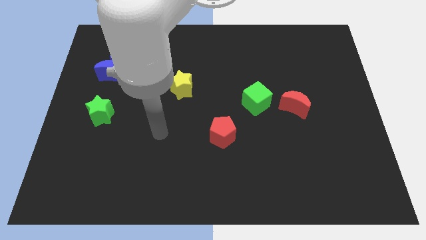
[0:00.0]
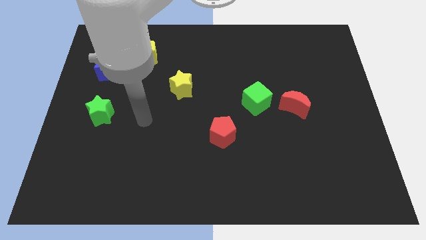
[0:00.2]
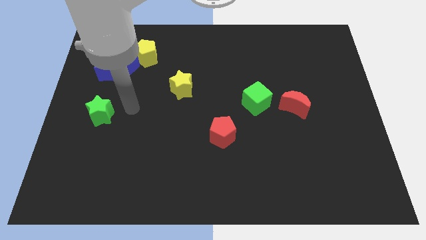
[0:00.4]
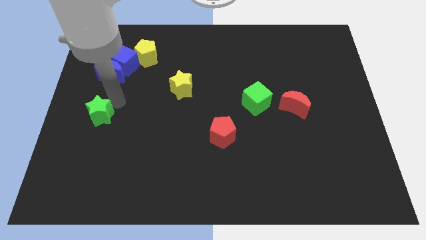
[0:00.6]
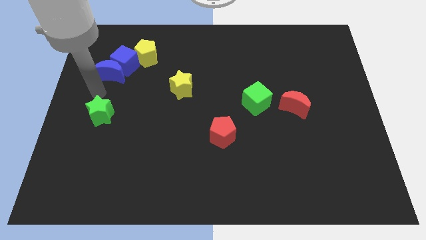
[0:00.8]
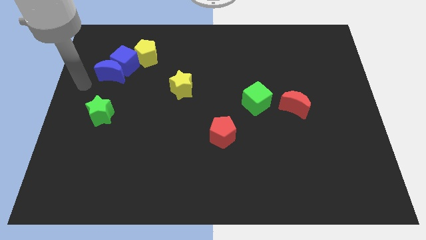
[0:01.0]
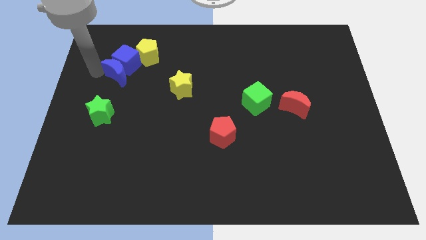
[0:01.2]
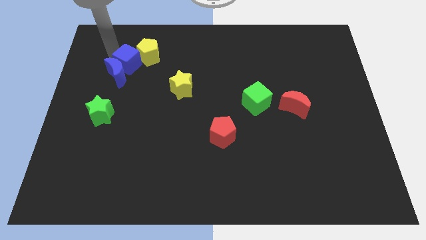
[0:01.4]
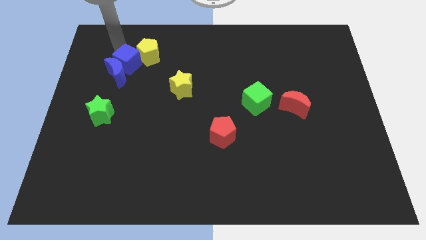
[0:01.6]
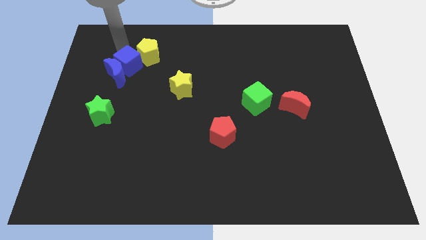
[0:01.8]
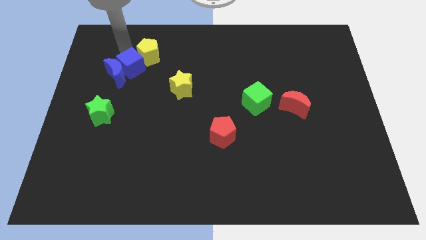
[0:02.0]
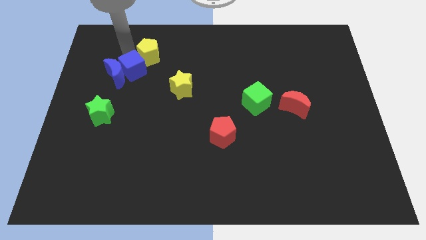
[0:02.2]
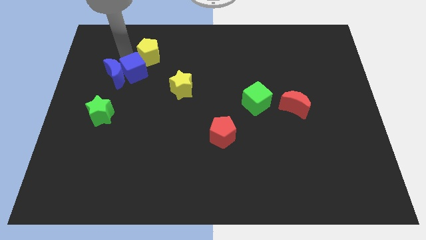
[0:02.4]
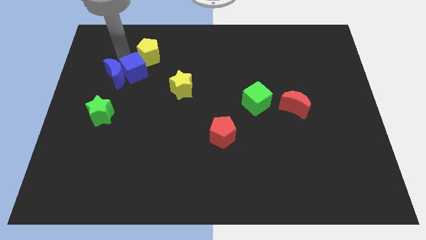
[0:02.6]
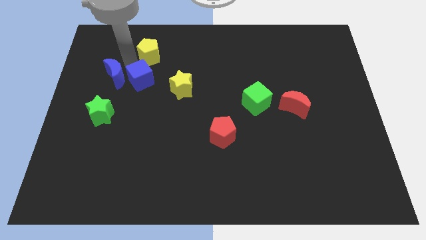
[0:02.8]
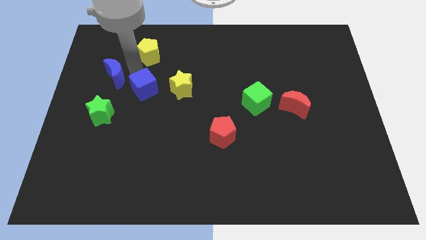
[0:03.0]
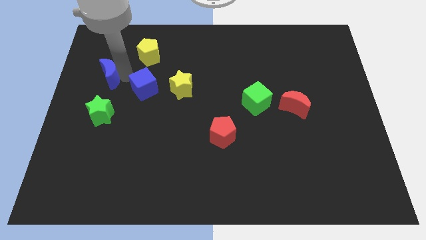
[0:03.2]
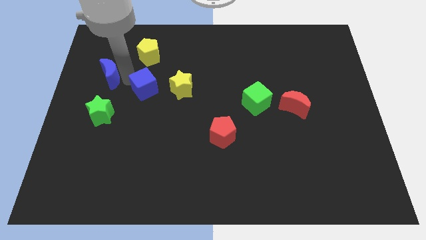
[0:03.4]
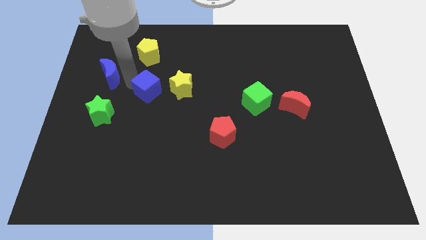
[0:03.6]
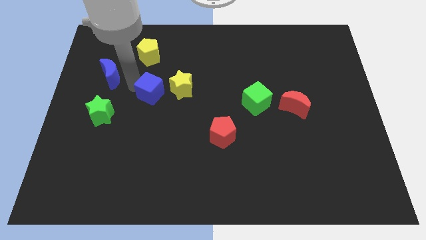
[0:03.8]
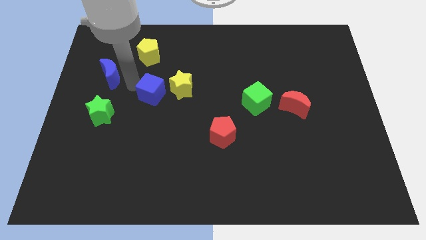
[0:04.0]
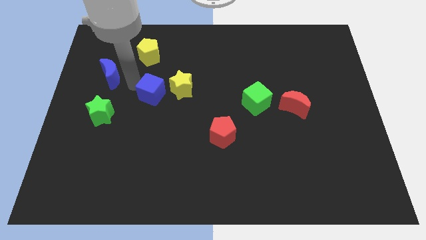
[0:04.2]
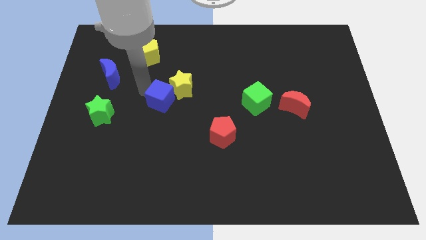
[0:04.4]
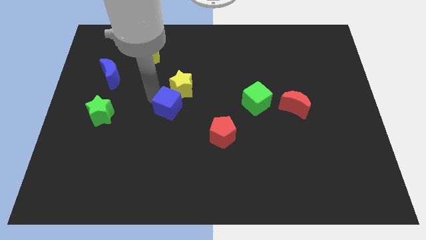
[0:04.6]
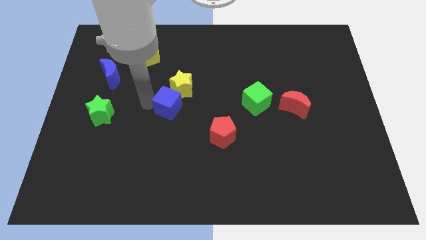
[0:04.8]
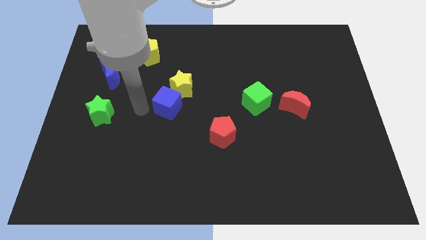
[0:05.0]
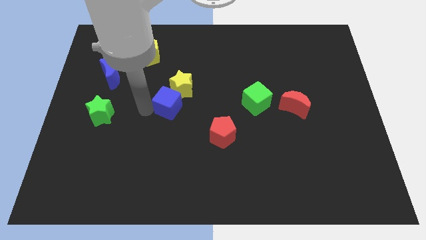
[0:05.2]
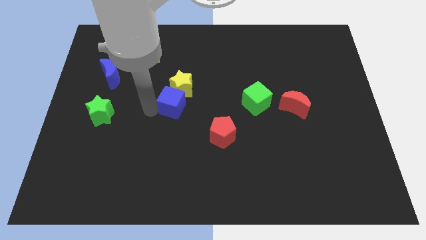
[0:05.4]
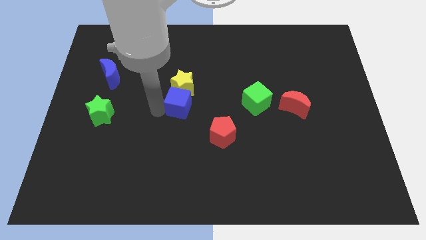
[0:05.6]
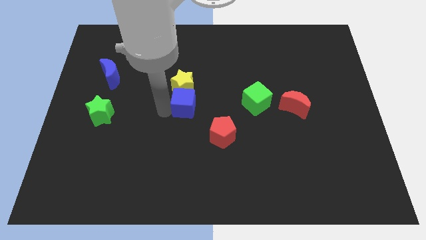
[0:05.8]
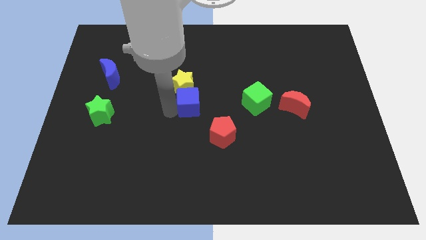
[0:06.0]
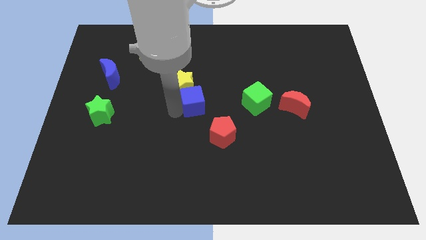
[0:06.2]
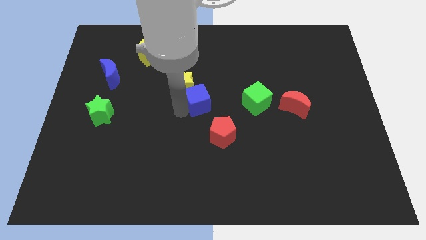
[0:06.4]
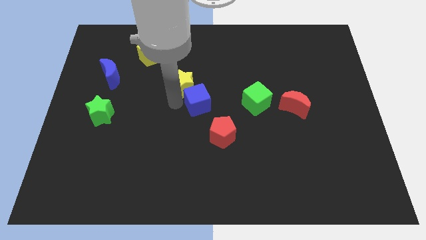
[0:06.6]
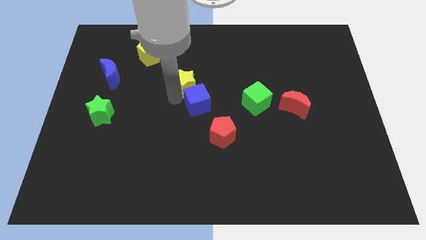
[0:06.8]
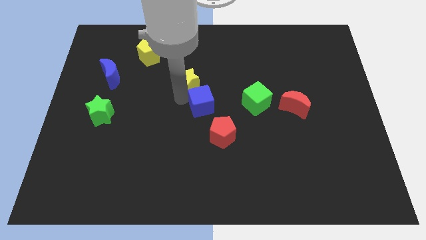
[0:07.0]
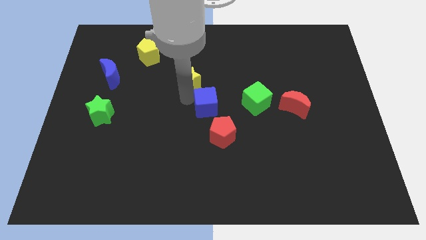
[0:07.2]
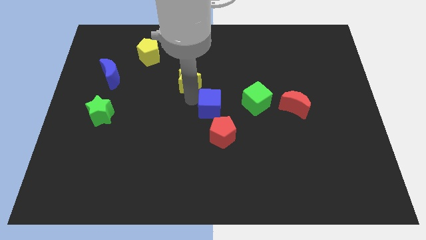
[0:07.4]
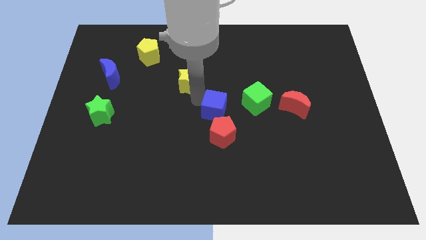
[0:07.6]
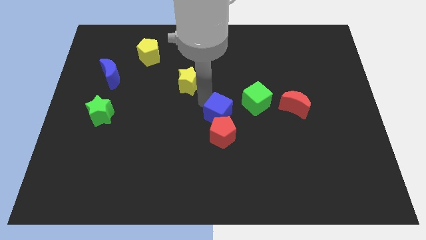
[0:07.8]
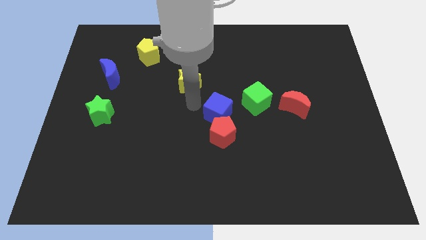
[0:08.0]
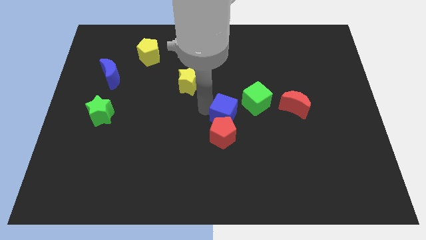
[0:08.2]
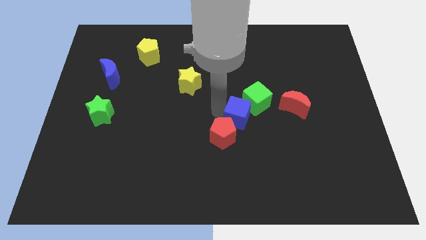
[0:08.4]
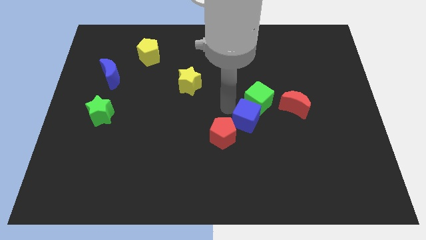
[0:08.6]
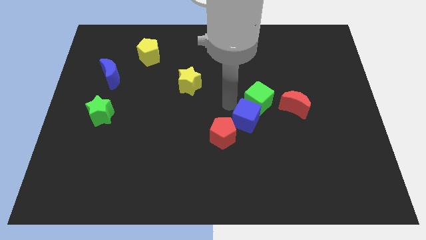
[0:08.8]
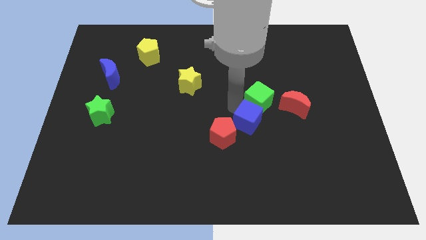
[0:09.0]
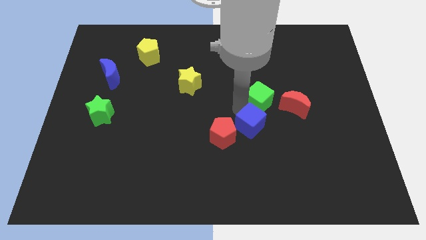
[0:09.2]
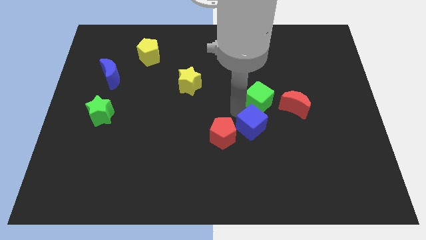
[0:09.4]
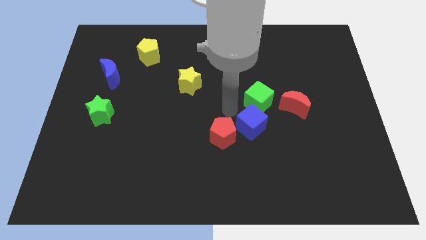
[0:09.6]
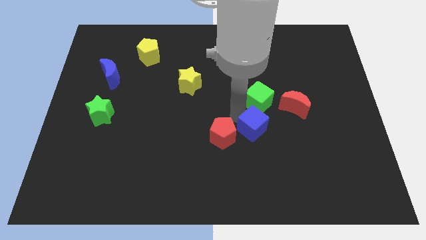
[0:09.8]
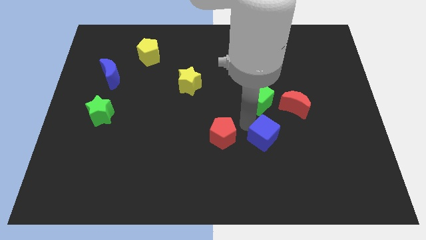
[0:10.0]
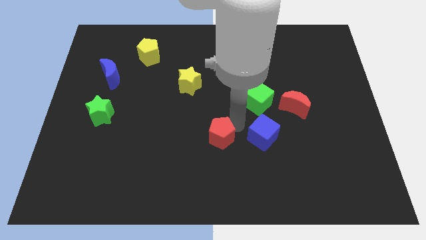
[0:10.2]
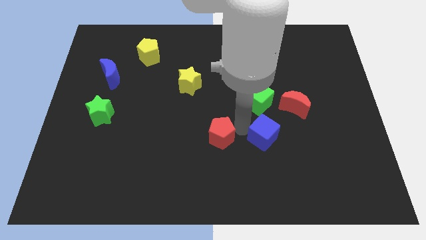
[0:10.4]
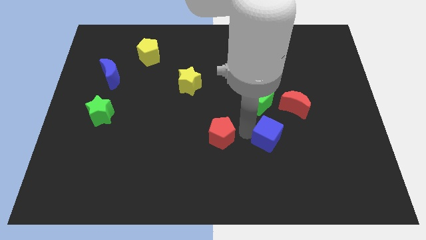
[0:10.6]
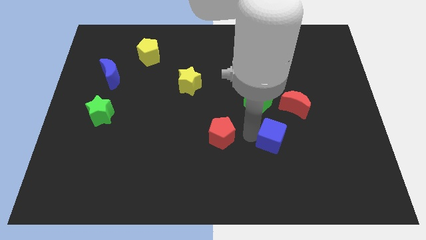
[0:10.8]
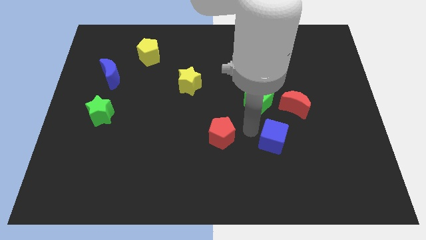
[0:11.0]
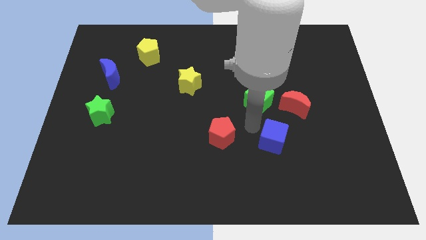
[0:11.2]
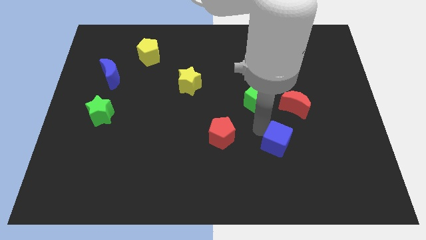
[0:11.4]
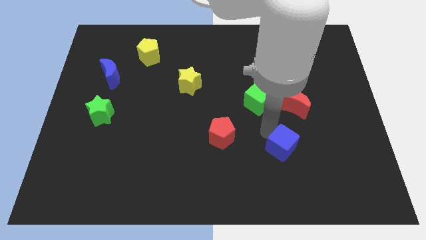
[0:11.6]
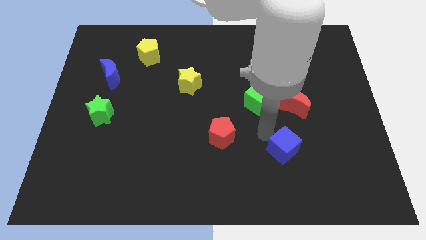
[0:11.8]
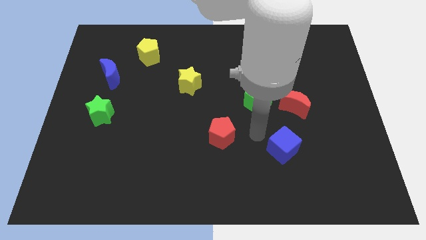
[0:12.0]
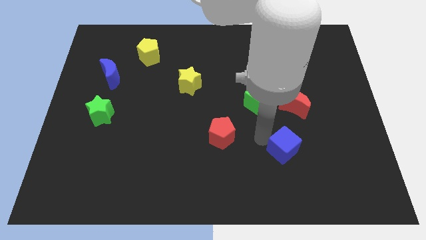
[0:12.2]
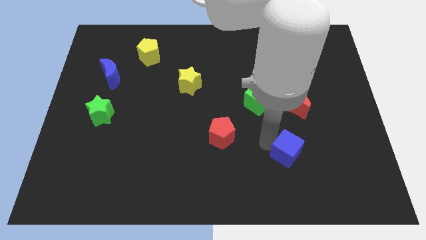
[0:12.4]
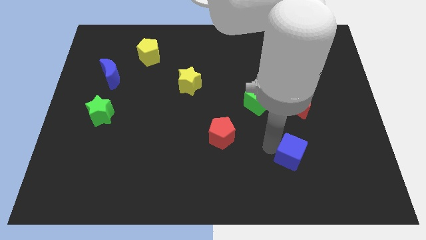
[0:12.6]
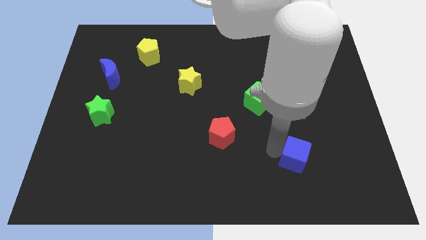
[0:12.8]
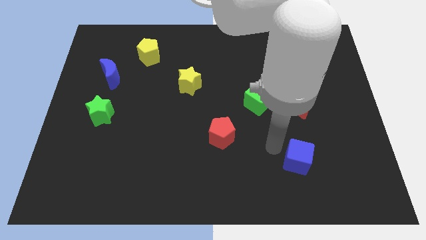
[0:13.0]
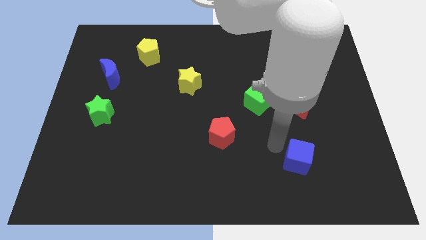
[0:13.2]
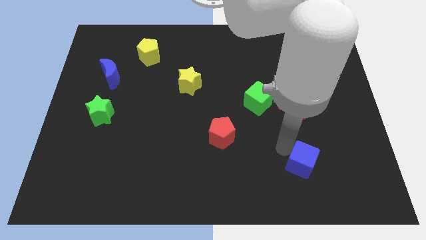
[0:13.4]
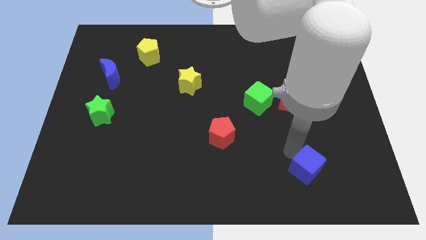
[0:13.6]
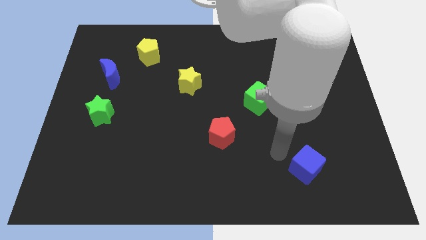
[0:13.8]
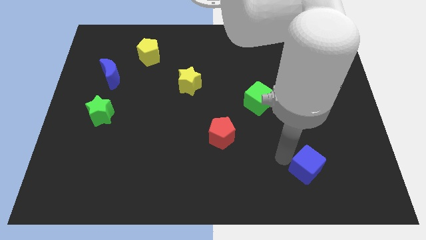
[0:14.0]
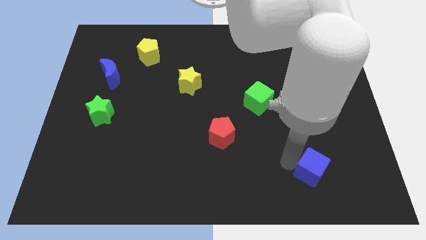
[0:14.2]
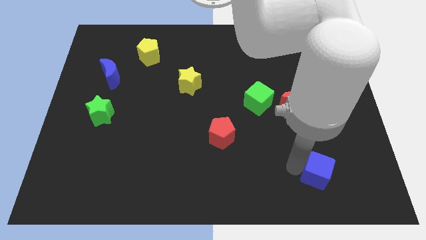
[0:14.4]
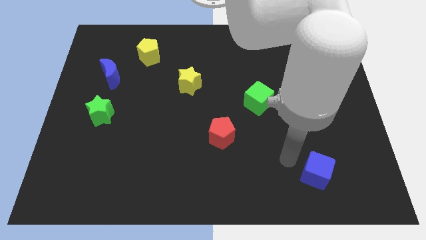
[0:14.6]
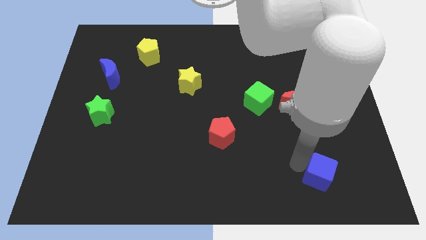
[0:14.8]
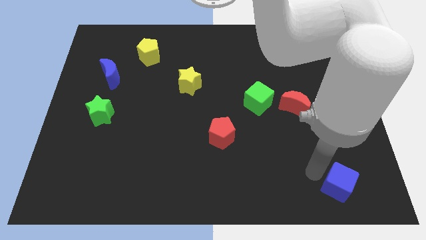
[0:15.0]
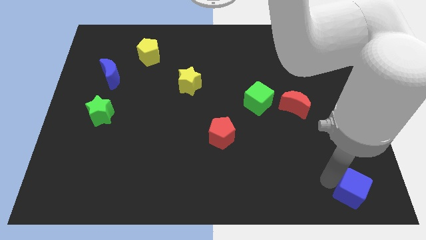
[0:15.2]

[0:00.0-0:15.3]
move the blue cube to the bottom right corner
